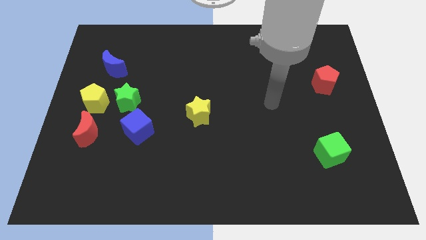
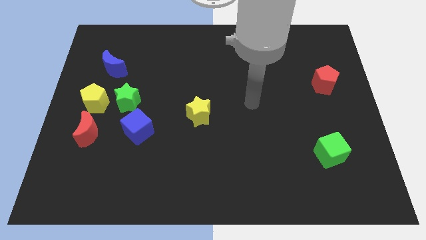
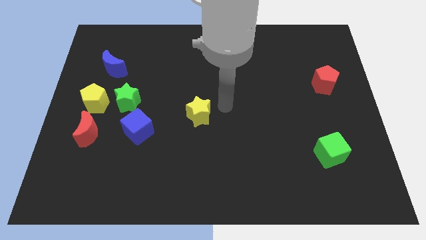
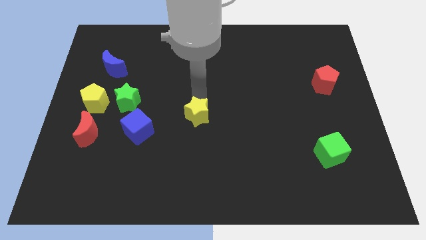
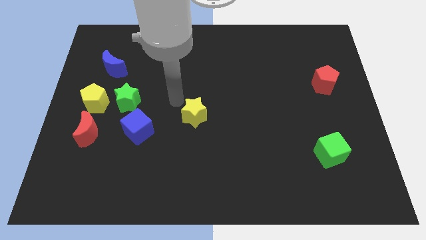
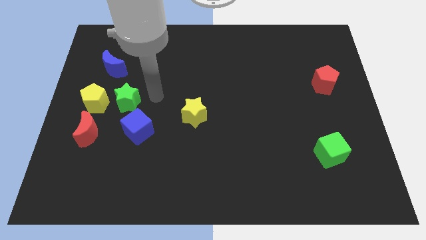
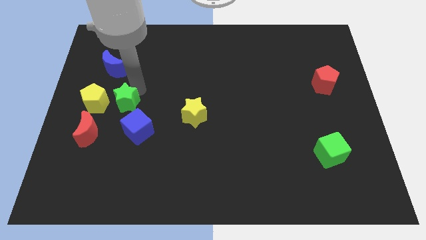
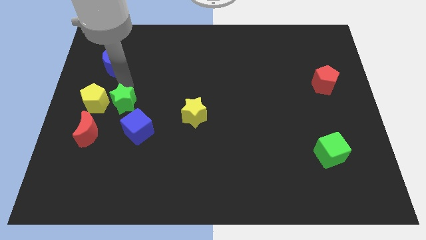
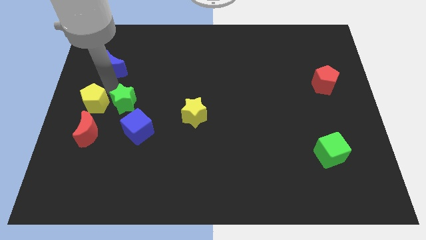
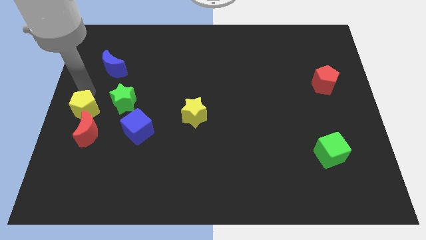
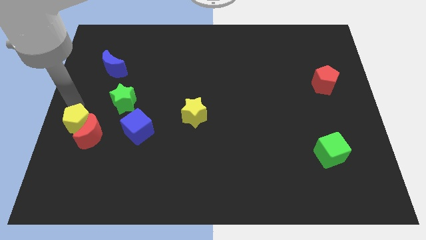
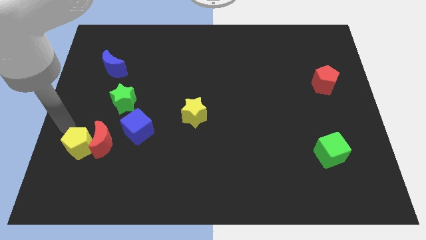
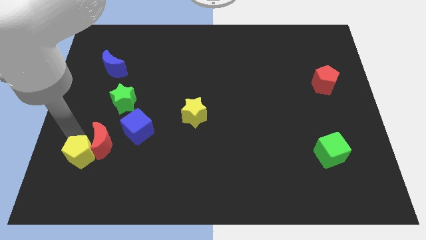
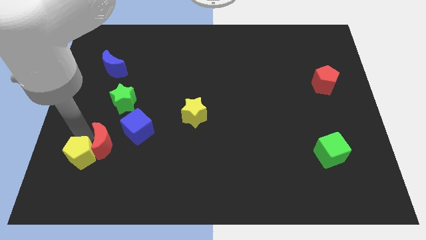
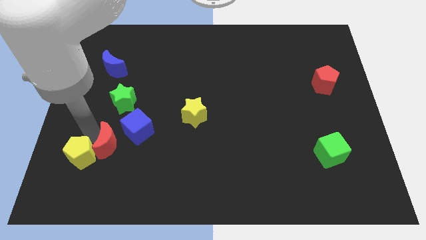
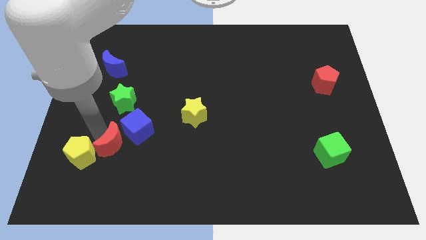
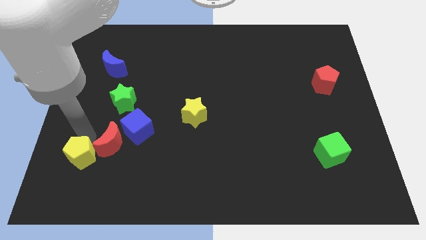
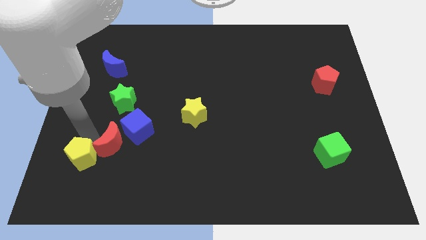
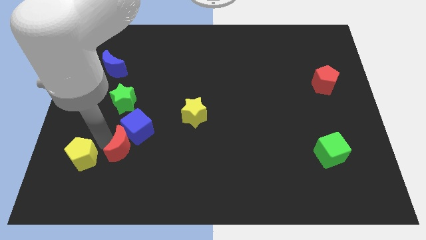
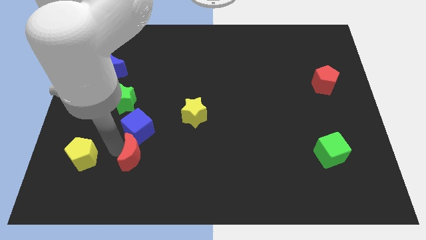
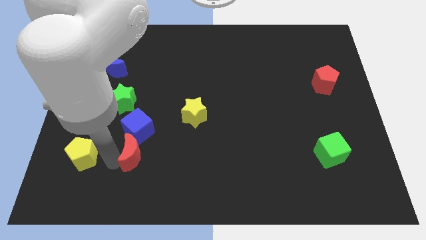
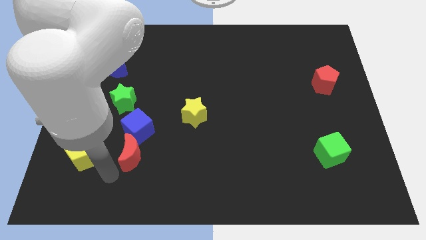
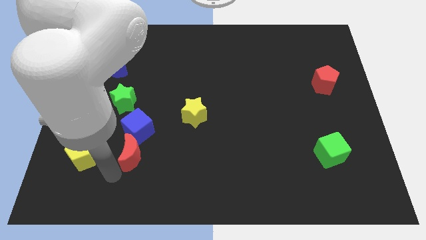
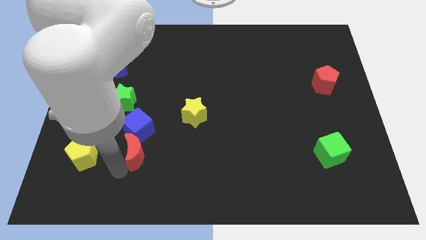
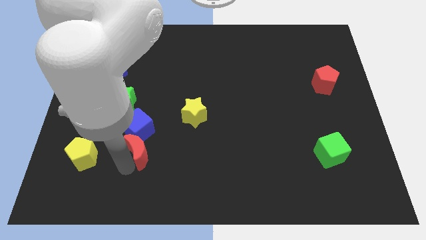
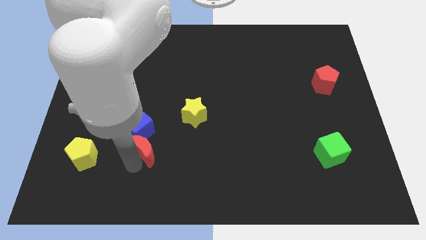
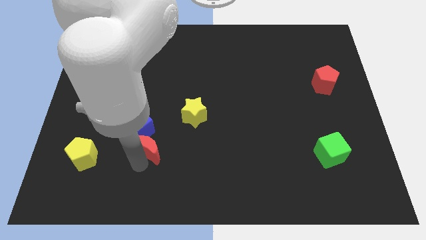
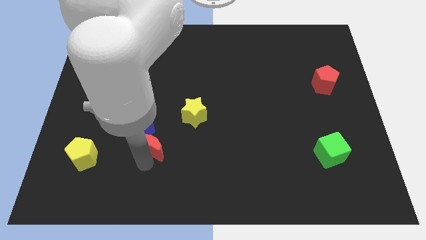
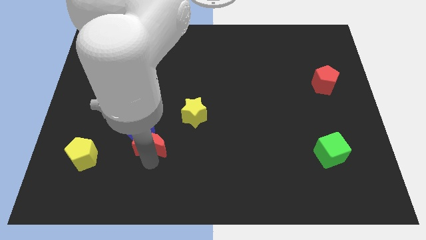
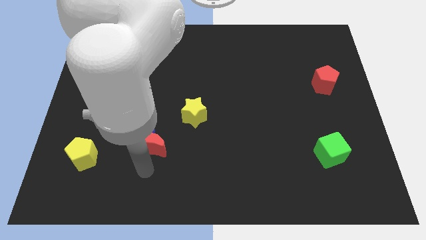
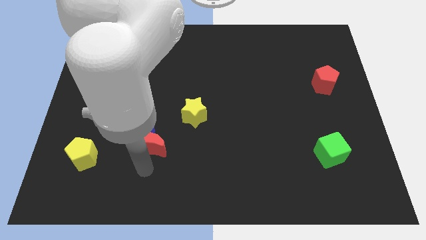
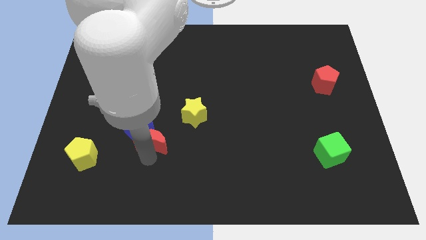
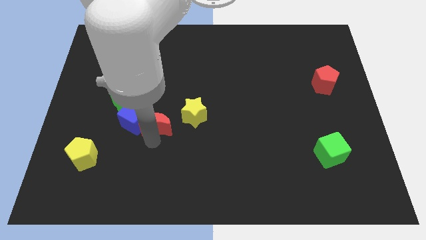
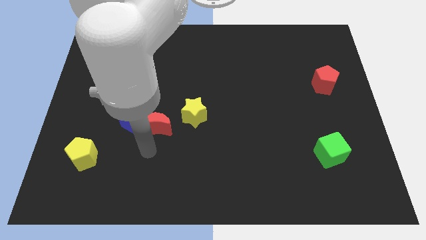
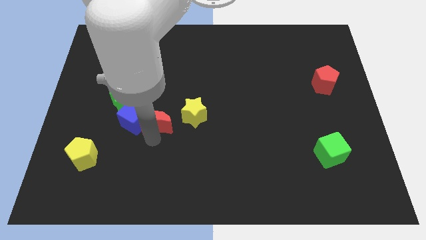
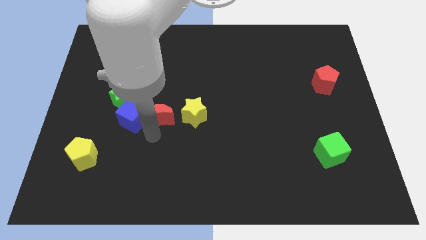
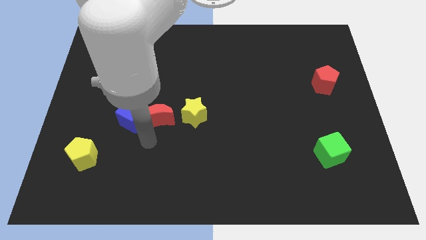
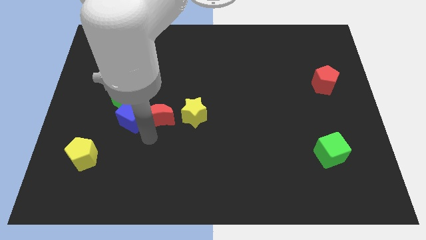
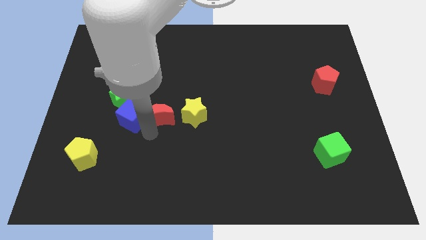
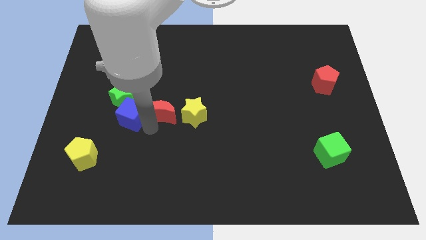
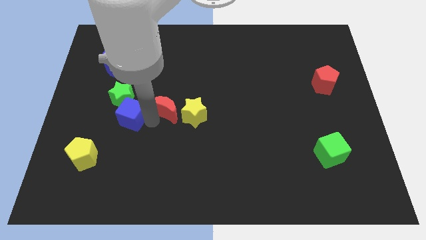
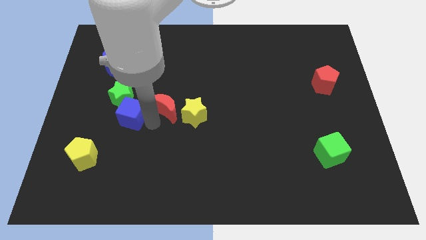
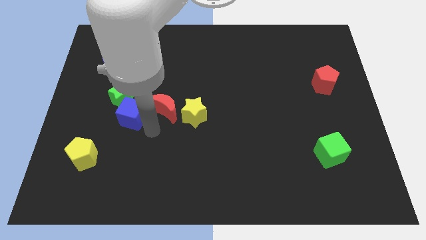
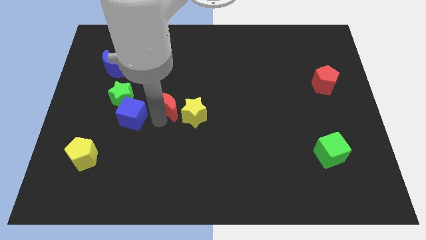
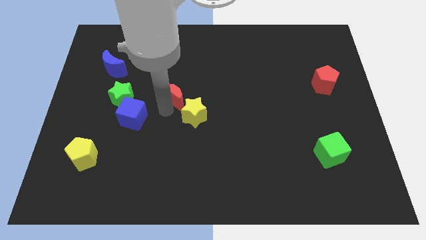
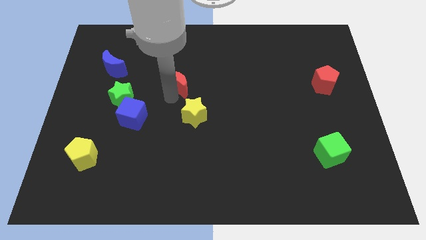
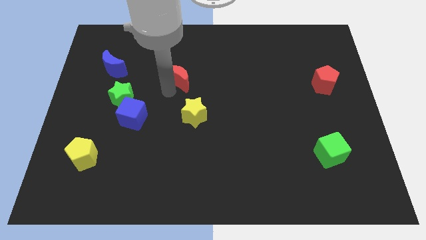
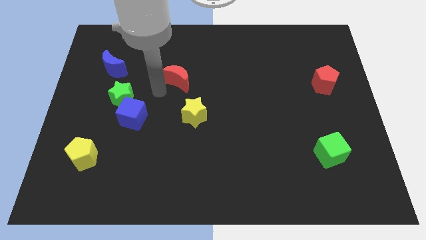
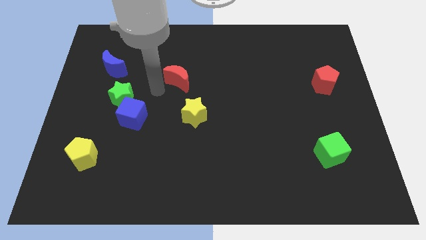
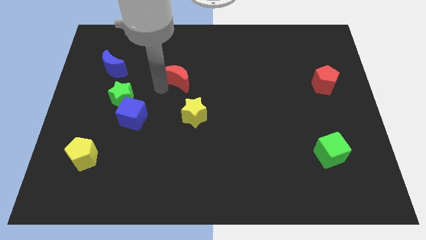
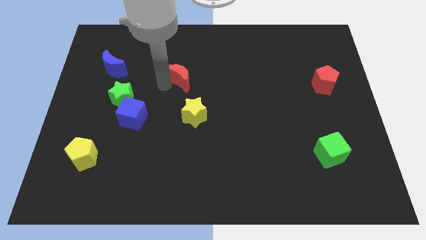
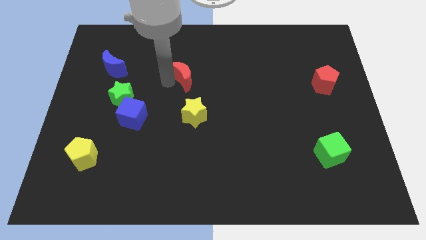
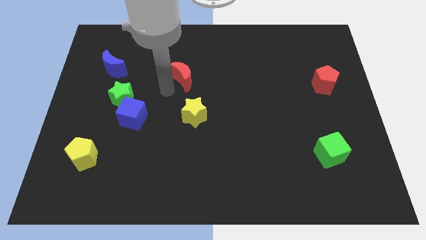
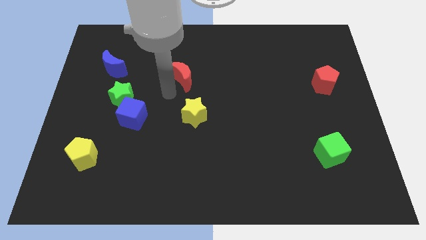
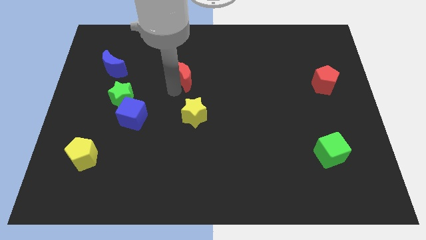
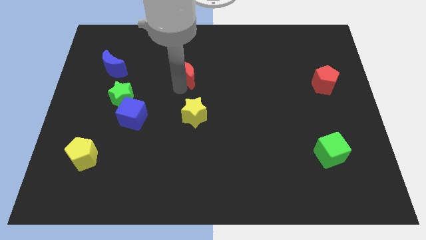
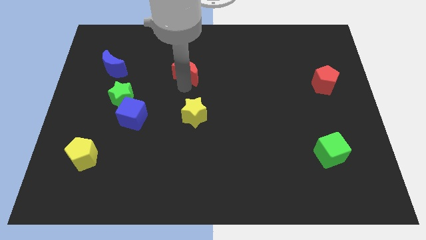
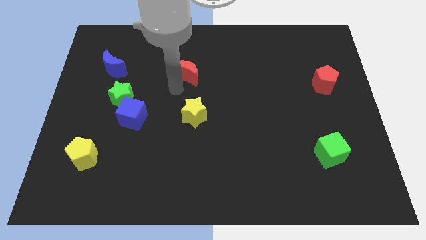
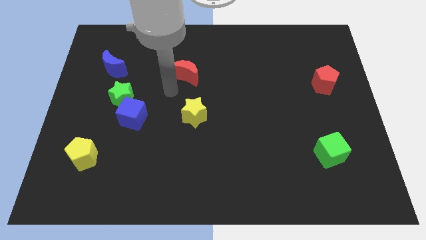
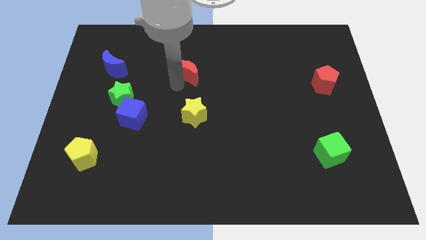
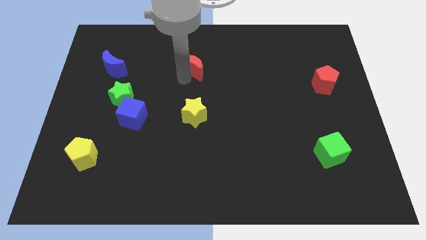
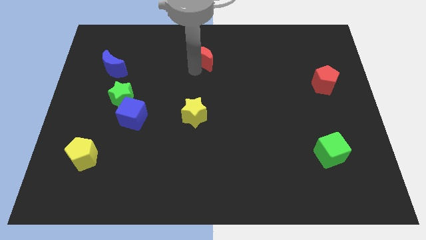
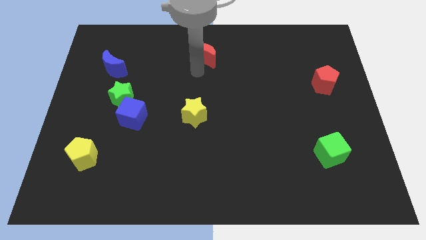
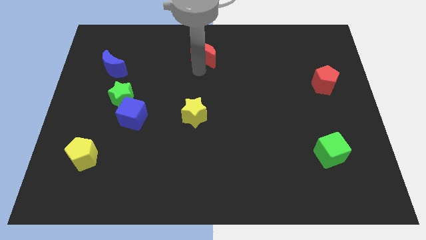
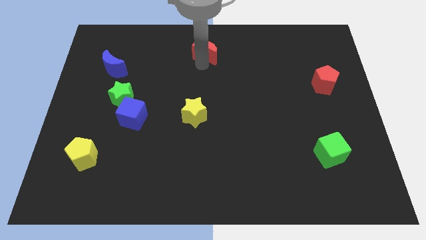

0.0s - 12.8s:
move the red moon to the top
